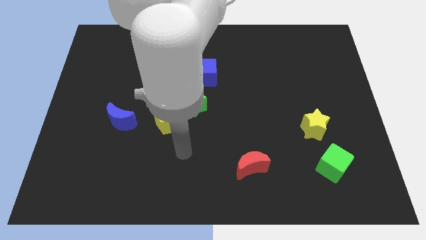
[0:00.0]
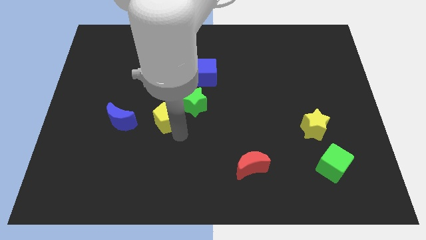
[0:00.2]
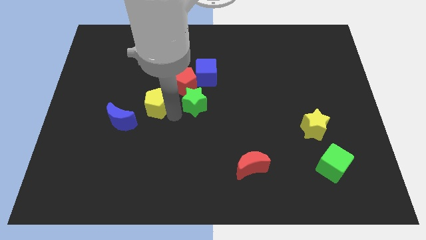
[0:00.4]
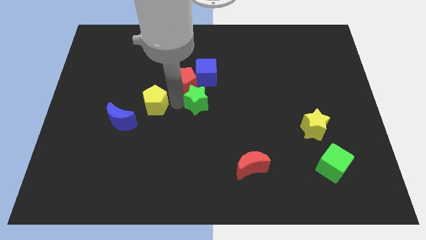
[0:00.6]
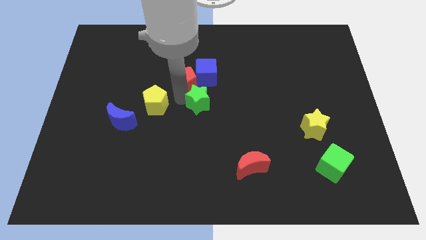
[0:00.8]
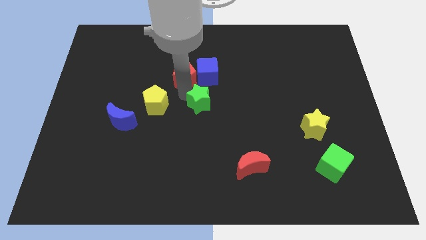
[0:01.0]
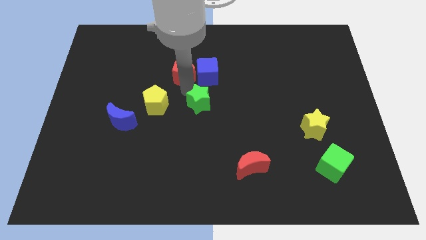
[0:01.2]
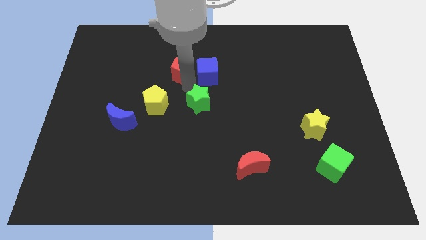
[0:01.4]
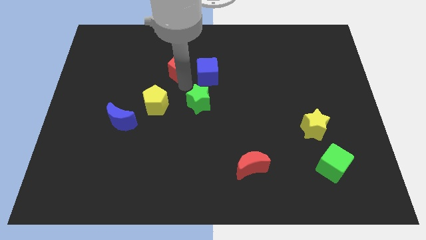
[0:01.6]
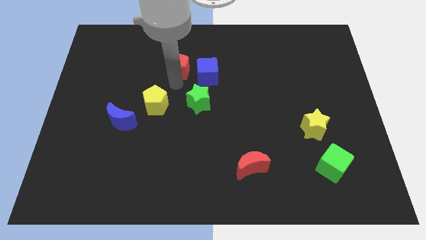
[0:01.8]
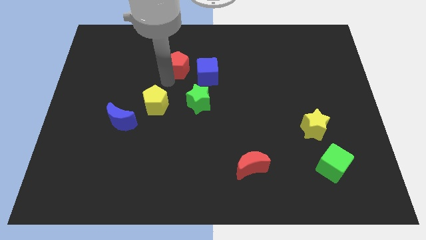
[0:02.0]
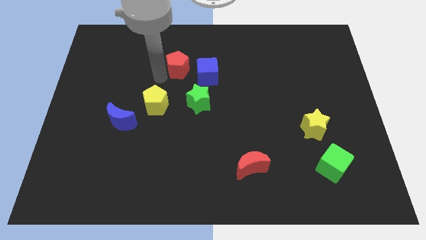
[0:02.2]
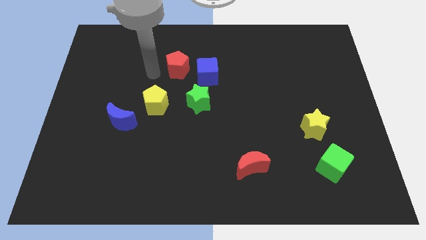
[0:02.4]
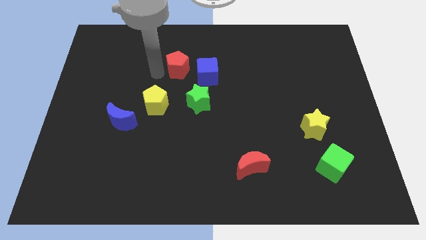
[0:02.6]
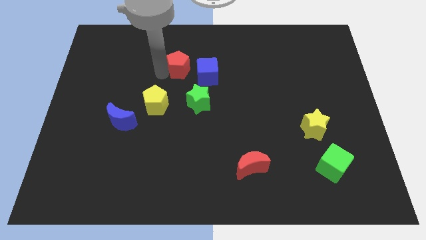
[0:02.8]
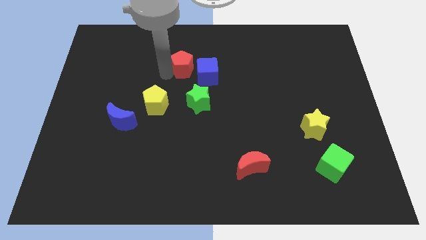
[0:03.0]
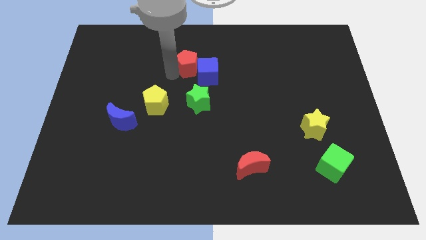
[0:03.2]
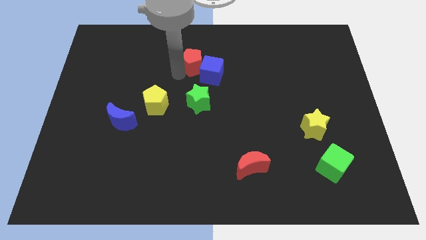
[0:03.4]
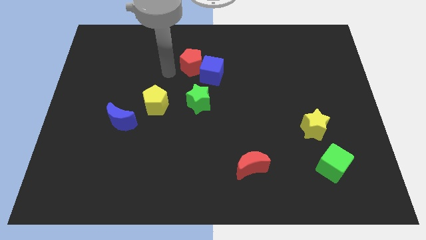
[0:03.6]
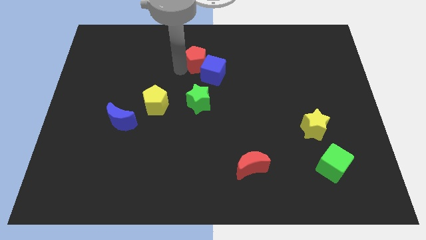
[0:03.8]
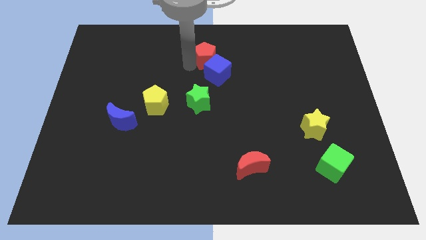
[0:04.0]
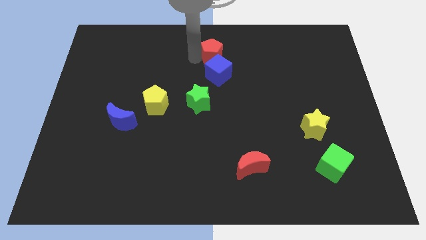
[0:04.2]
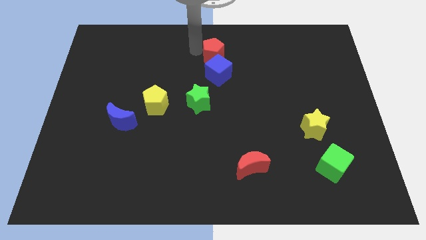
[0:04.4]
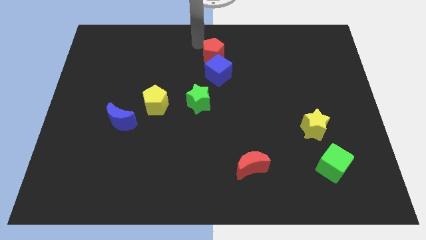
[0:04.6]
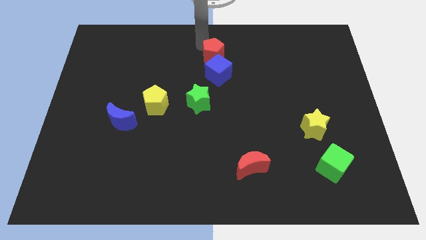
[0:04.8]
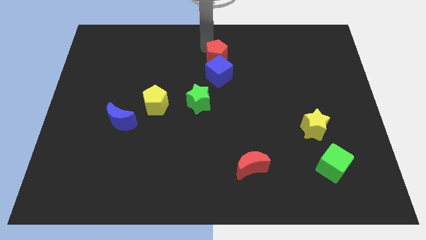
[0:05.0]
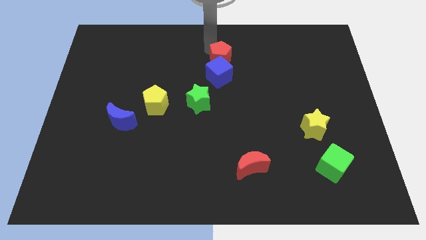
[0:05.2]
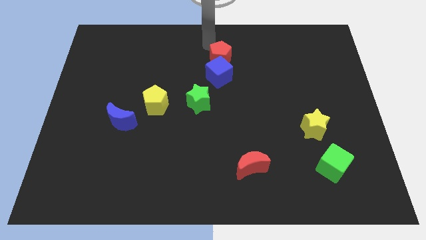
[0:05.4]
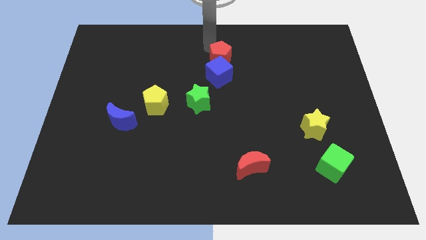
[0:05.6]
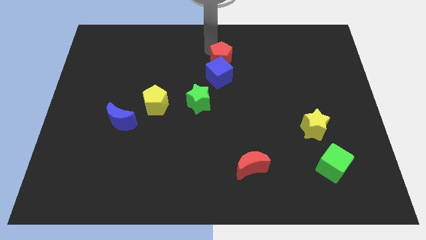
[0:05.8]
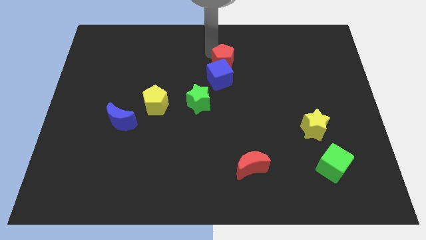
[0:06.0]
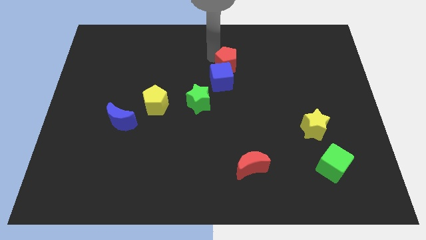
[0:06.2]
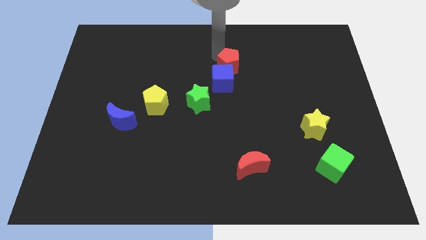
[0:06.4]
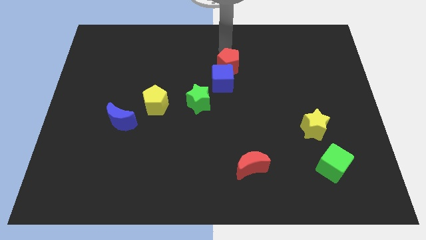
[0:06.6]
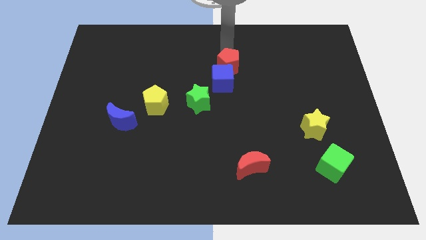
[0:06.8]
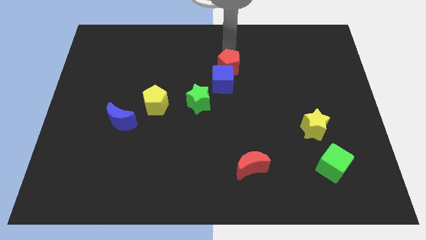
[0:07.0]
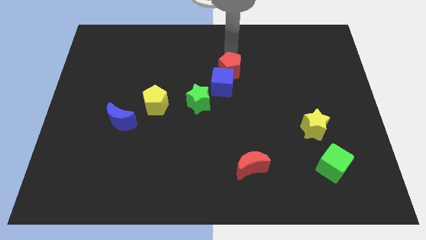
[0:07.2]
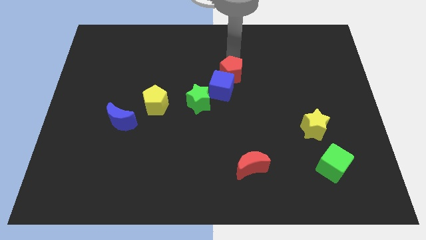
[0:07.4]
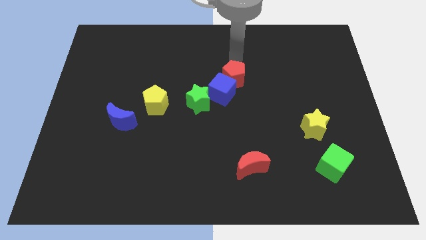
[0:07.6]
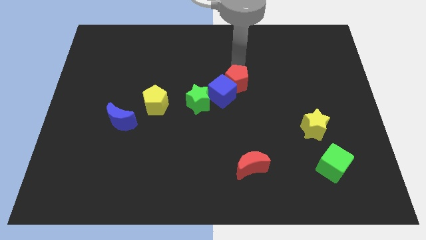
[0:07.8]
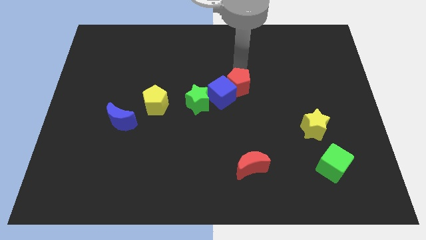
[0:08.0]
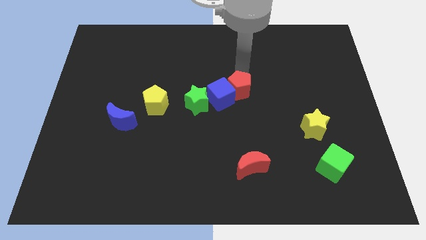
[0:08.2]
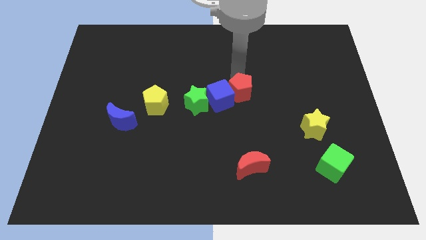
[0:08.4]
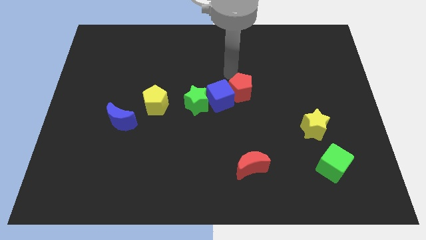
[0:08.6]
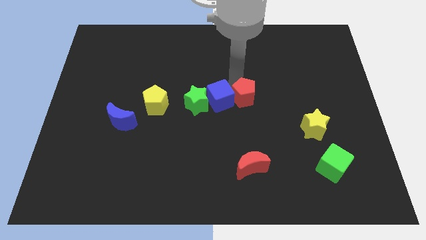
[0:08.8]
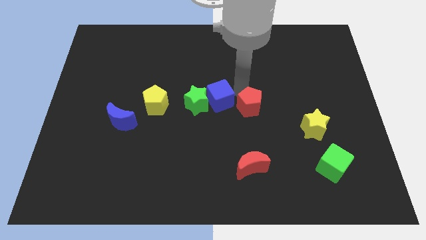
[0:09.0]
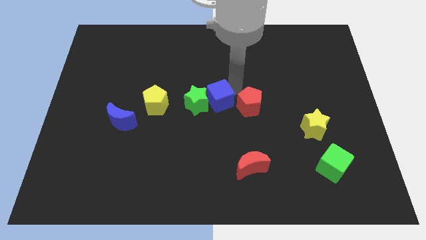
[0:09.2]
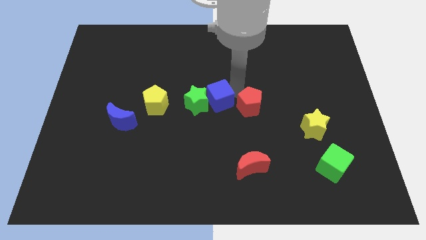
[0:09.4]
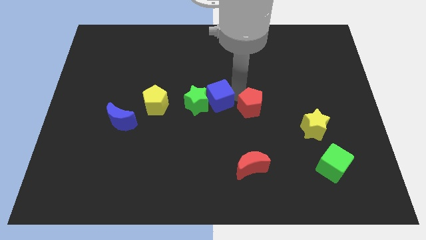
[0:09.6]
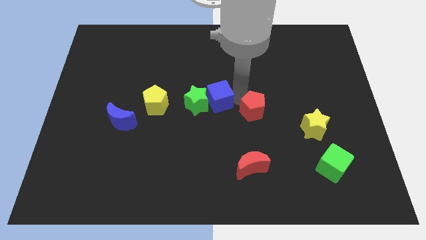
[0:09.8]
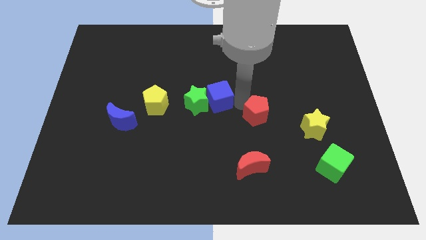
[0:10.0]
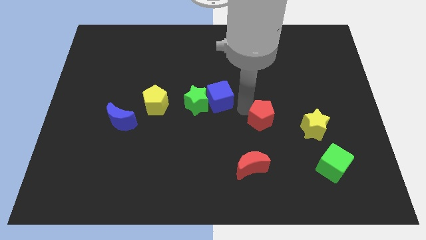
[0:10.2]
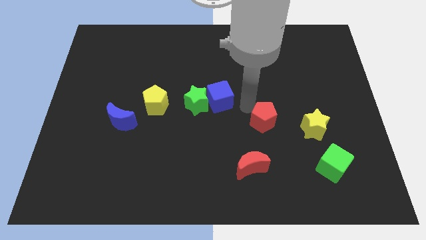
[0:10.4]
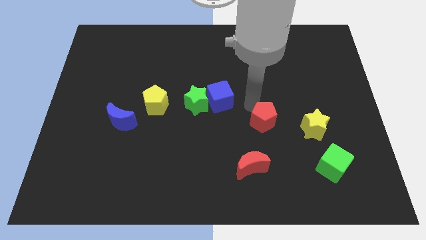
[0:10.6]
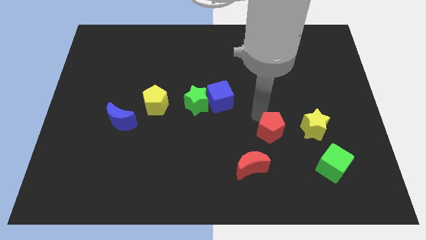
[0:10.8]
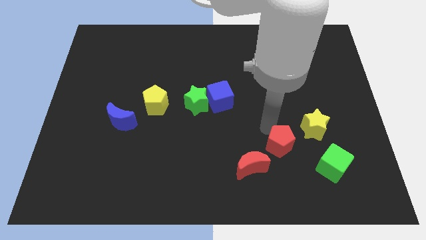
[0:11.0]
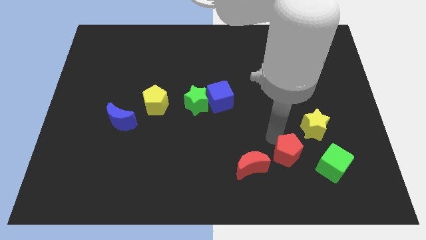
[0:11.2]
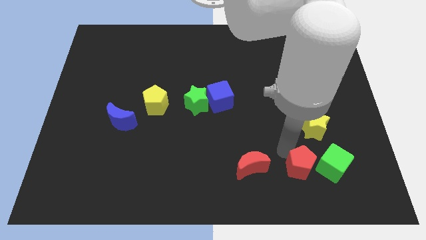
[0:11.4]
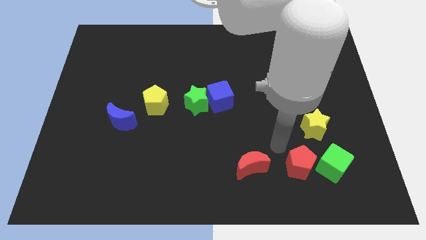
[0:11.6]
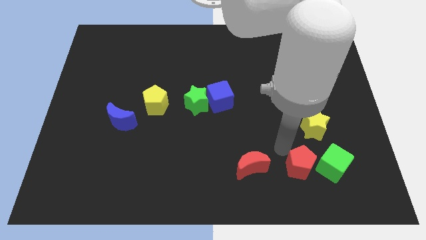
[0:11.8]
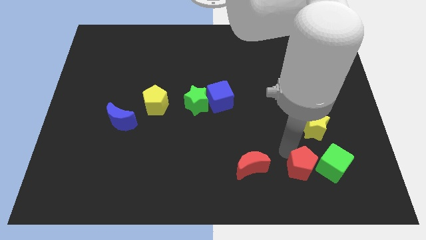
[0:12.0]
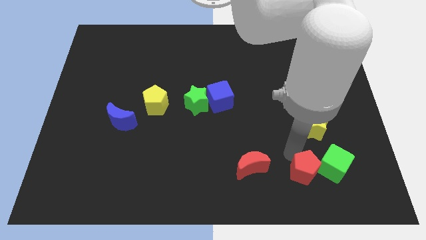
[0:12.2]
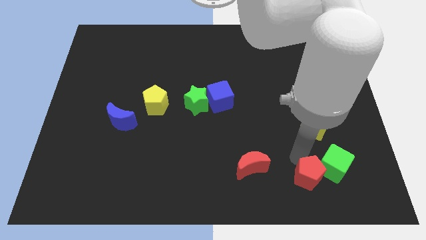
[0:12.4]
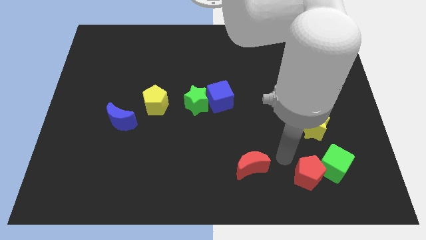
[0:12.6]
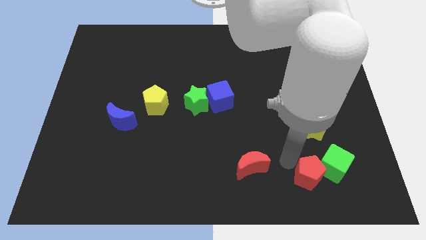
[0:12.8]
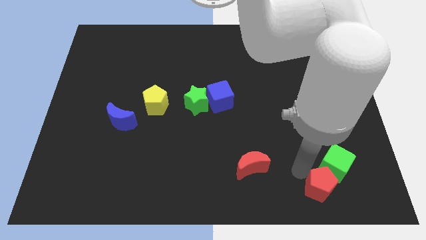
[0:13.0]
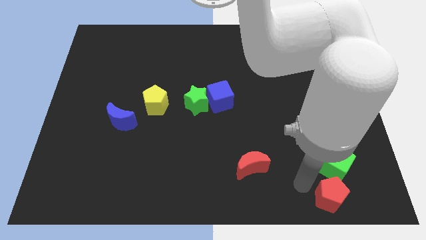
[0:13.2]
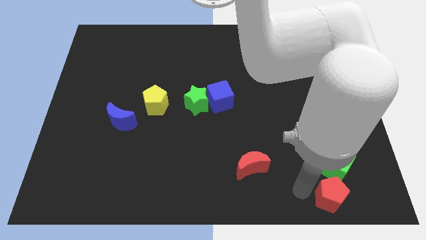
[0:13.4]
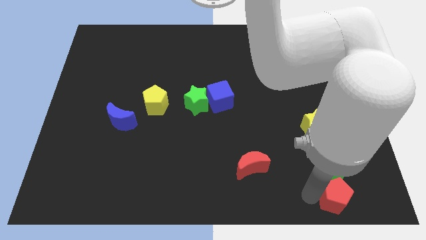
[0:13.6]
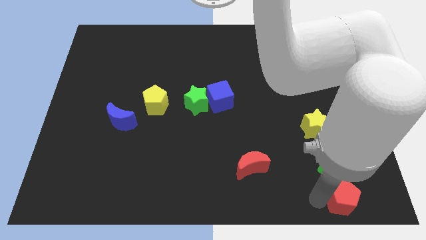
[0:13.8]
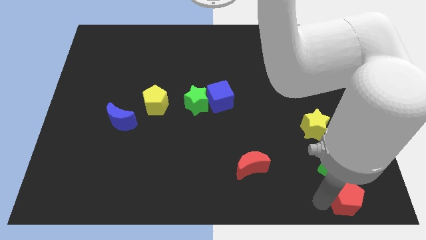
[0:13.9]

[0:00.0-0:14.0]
slide the red pentagon to the bottom right of the board
